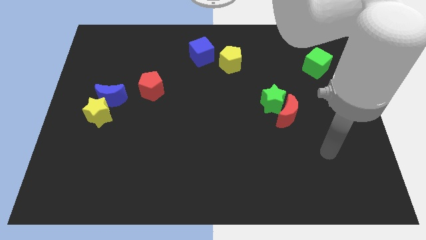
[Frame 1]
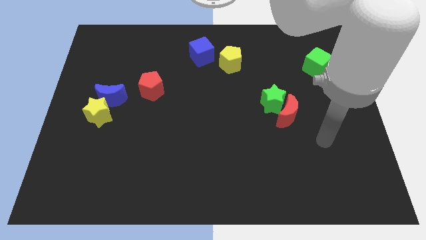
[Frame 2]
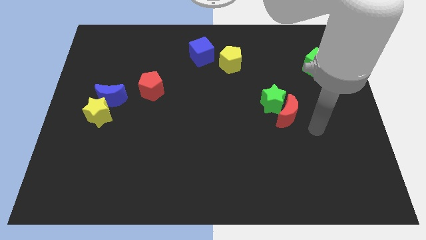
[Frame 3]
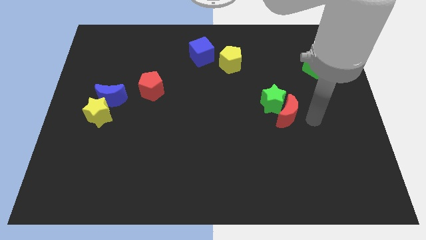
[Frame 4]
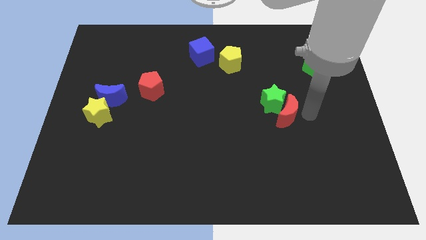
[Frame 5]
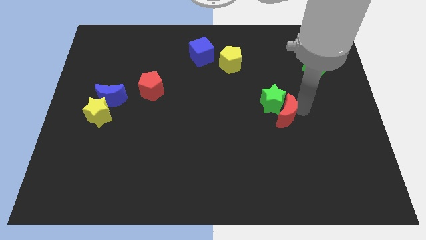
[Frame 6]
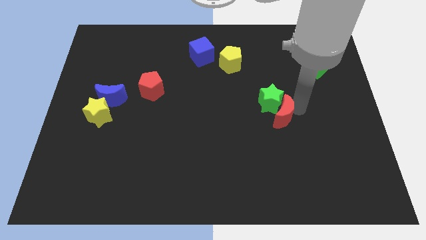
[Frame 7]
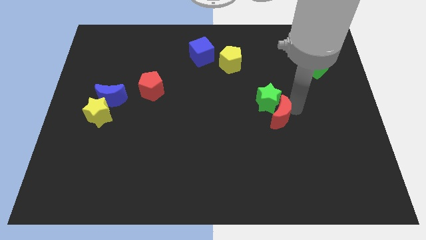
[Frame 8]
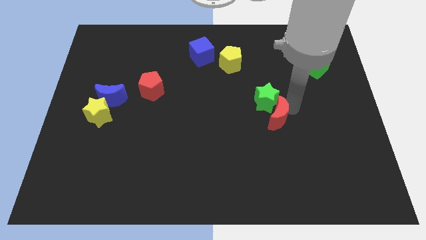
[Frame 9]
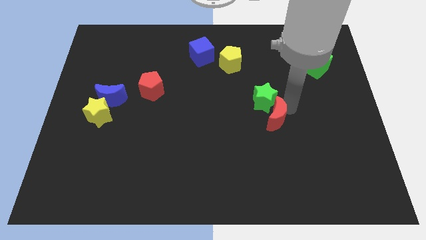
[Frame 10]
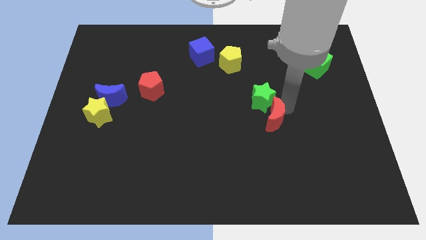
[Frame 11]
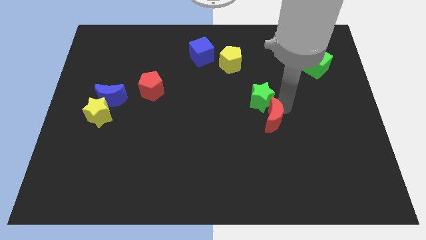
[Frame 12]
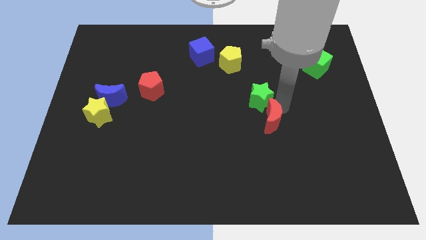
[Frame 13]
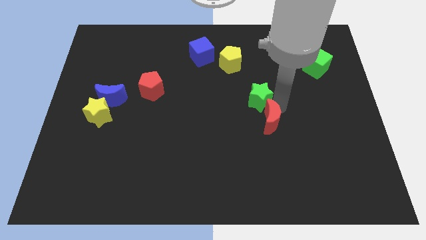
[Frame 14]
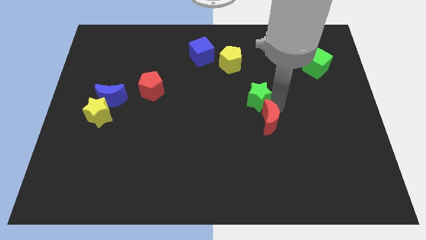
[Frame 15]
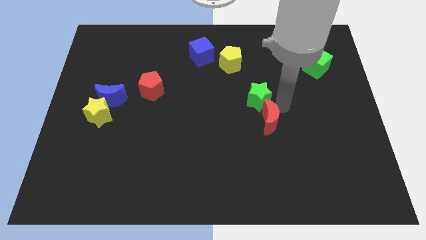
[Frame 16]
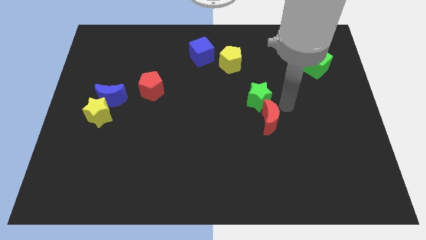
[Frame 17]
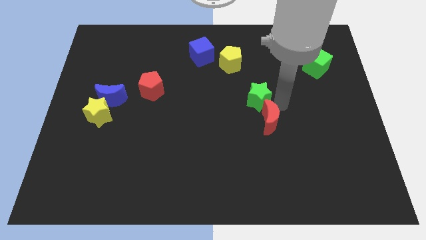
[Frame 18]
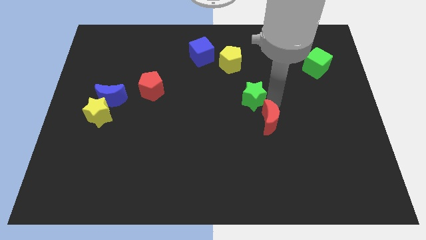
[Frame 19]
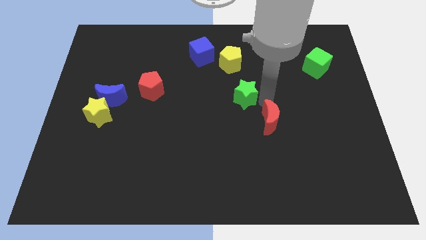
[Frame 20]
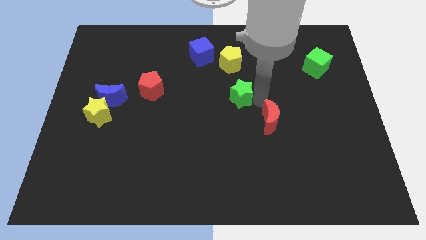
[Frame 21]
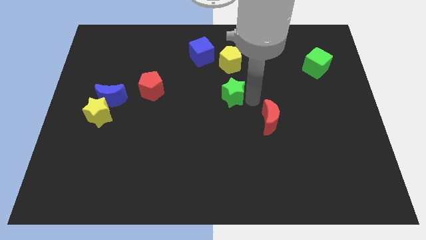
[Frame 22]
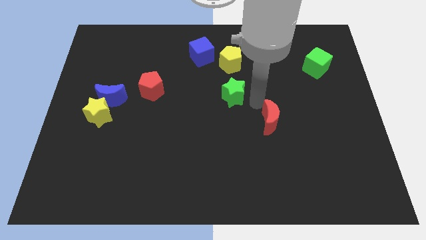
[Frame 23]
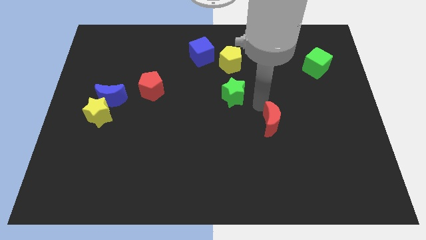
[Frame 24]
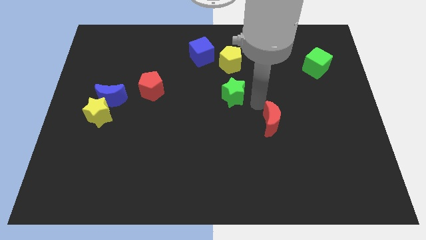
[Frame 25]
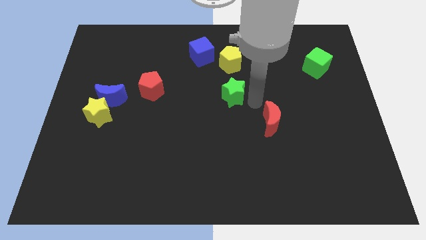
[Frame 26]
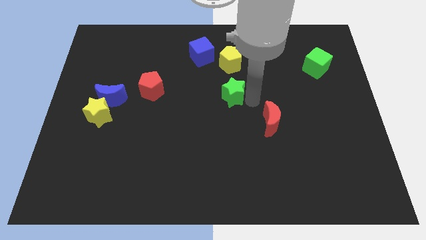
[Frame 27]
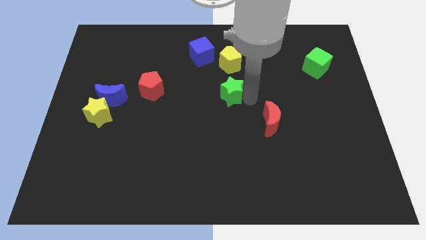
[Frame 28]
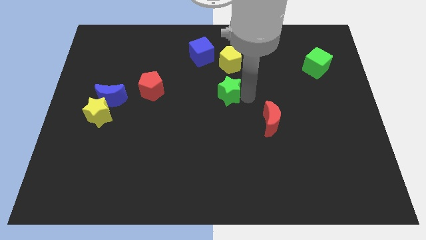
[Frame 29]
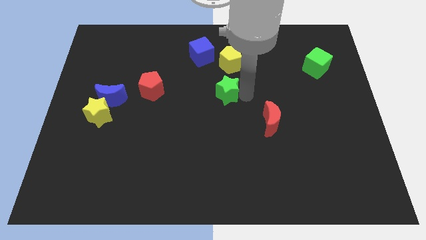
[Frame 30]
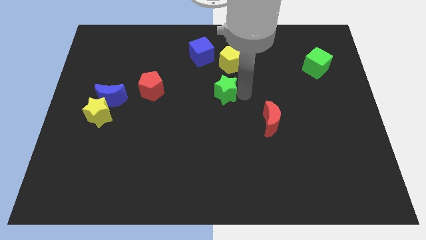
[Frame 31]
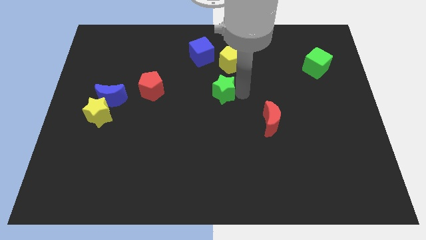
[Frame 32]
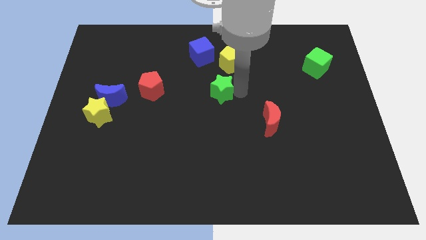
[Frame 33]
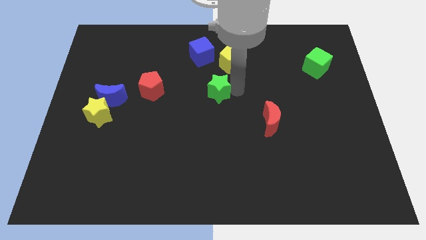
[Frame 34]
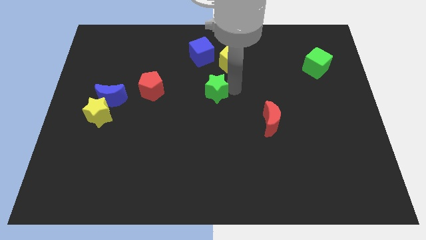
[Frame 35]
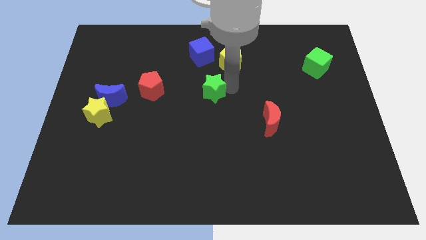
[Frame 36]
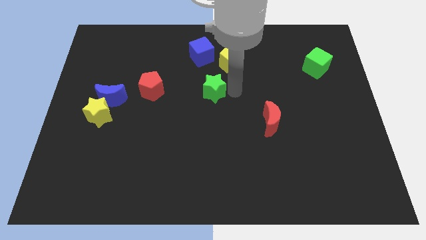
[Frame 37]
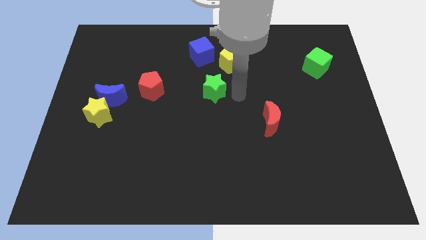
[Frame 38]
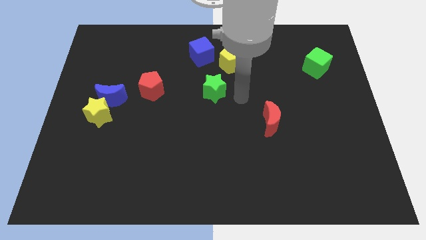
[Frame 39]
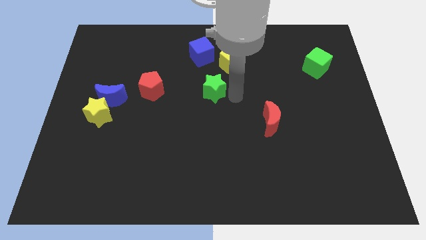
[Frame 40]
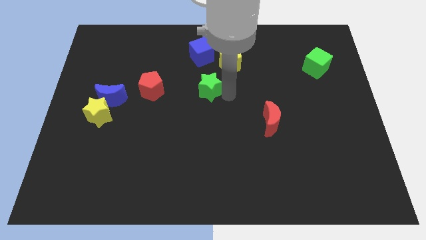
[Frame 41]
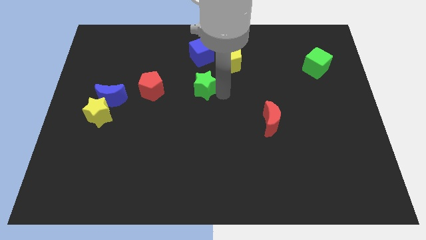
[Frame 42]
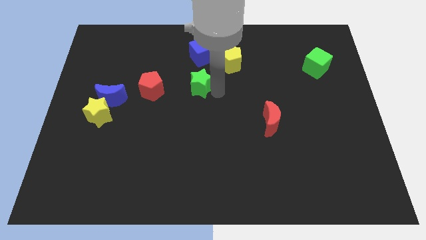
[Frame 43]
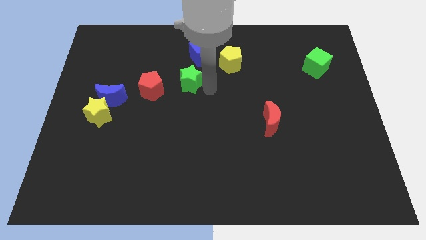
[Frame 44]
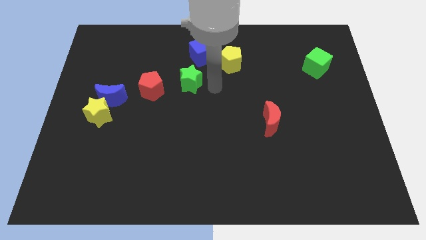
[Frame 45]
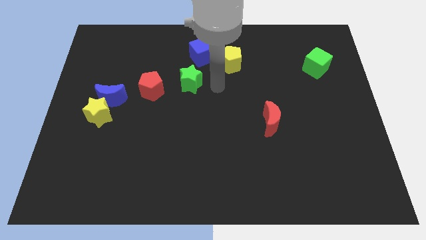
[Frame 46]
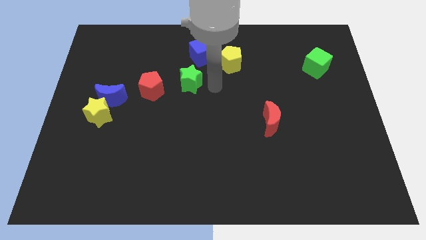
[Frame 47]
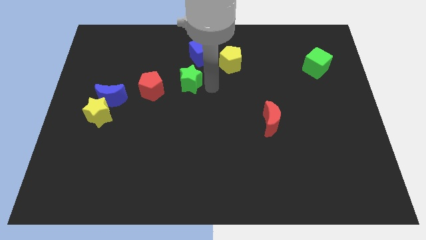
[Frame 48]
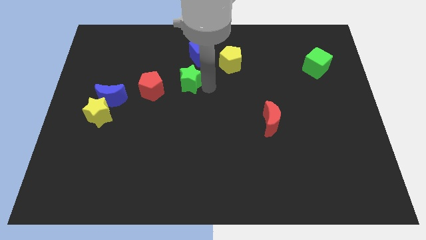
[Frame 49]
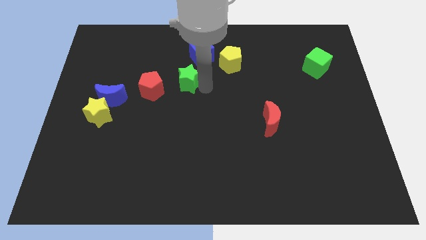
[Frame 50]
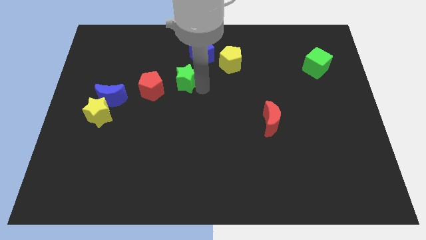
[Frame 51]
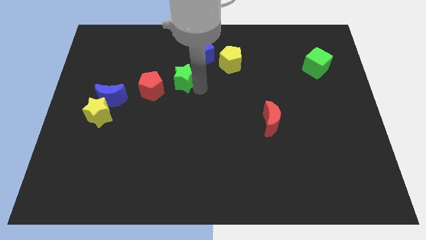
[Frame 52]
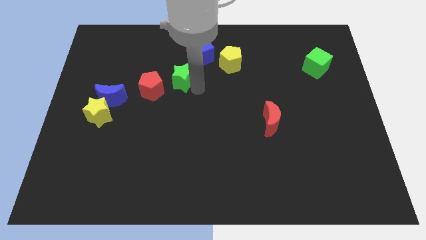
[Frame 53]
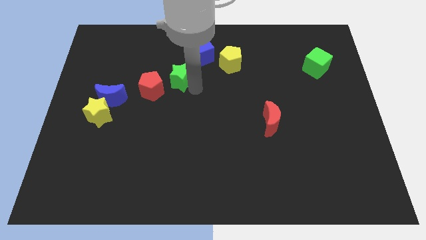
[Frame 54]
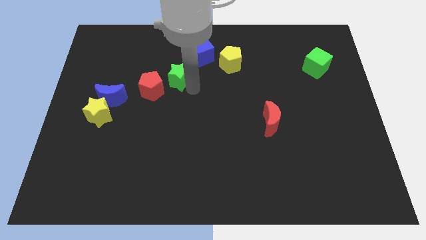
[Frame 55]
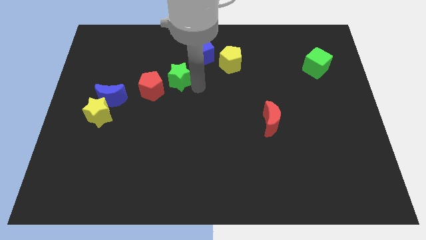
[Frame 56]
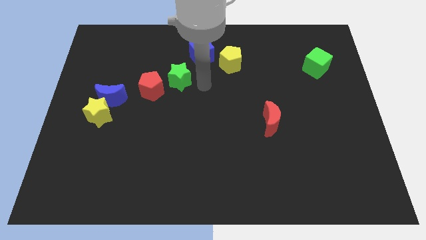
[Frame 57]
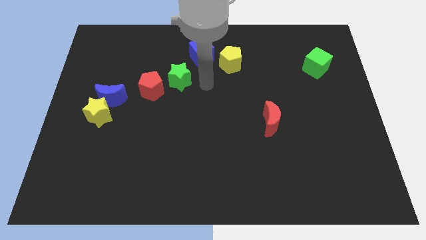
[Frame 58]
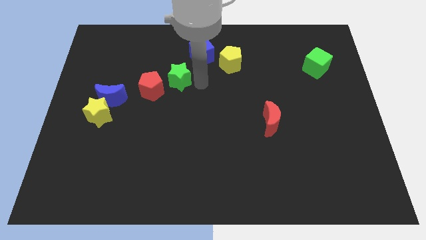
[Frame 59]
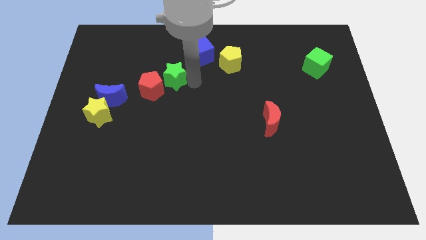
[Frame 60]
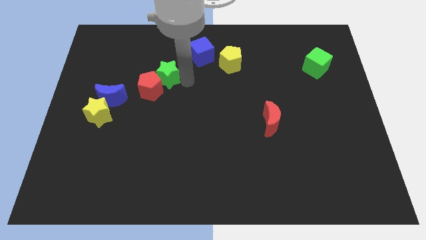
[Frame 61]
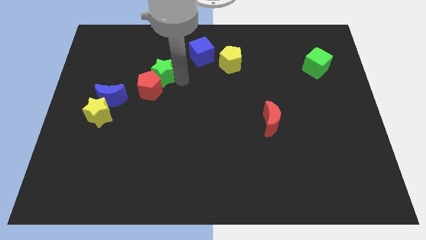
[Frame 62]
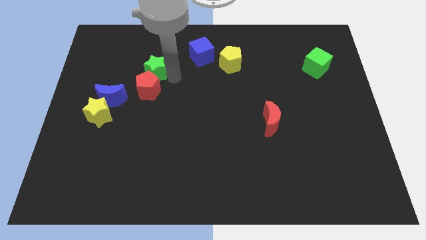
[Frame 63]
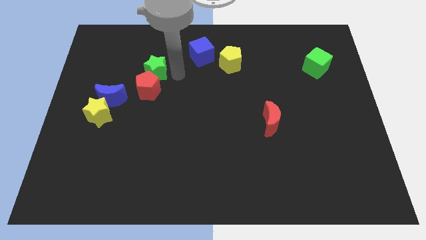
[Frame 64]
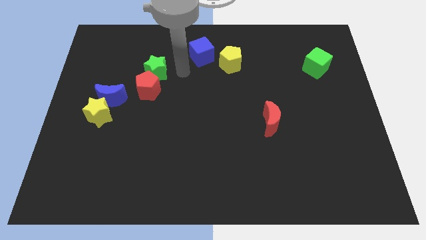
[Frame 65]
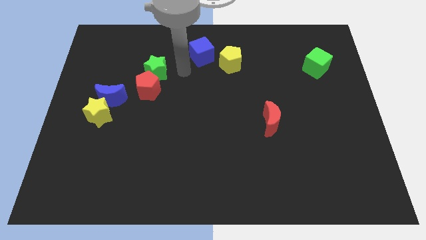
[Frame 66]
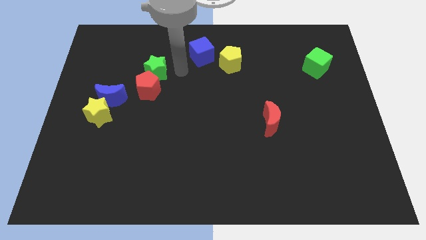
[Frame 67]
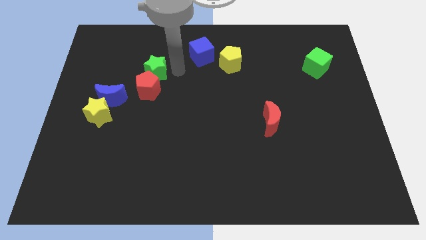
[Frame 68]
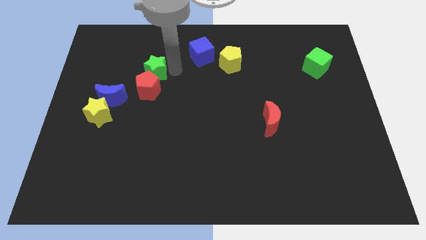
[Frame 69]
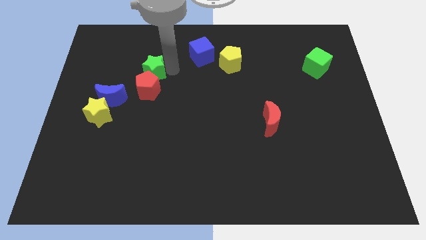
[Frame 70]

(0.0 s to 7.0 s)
move the green star to the top left of the red pentagon

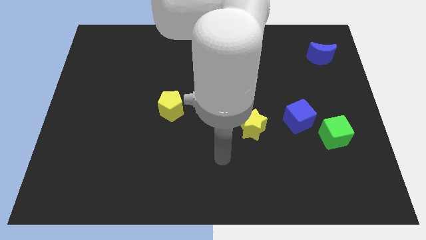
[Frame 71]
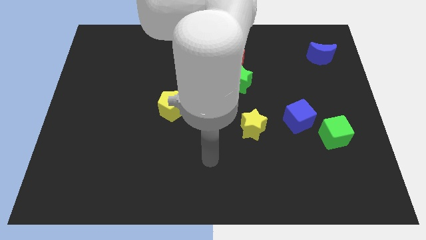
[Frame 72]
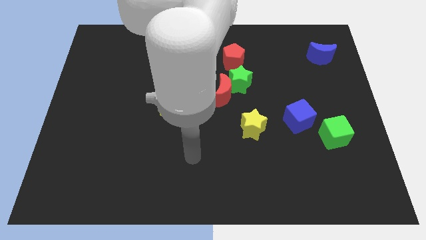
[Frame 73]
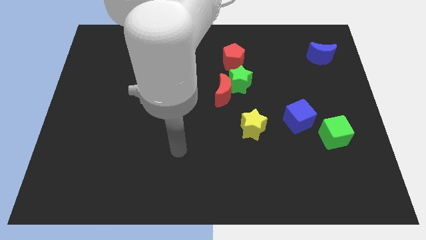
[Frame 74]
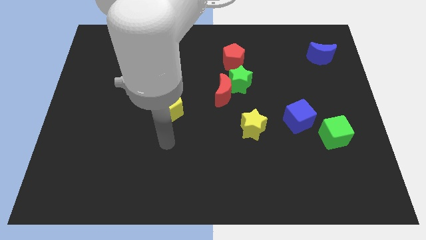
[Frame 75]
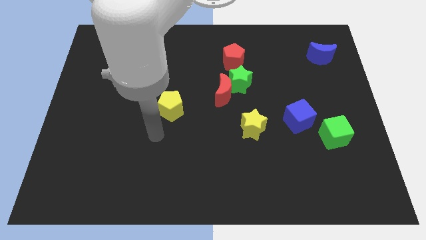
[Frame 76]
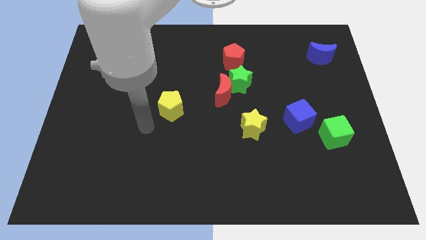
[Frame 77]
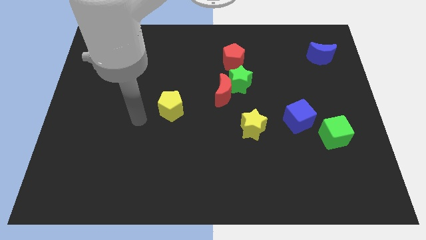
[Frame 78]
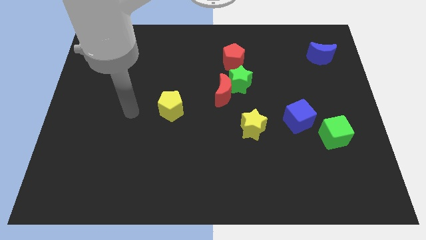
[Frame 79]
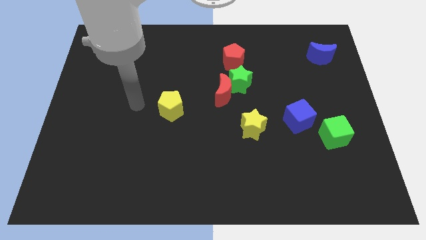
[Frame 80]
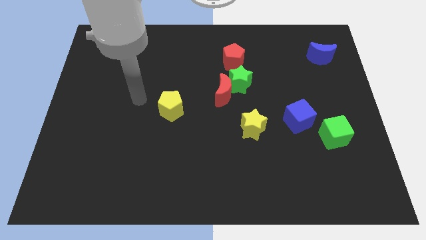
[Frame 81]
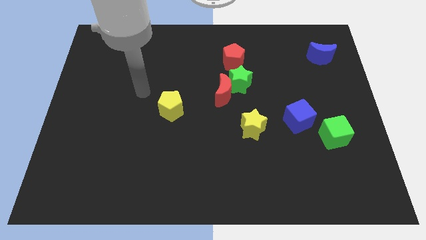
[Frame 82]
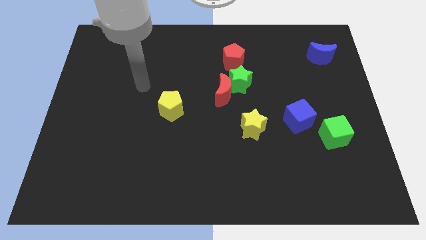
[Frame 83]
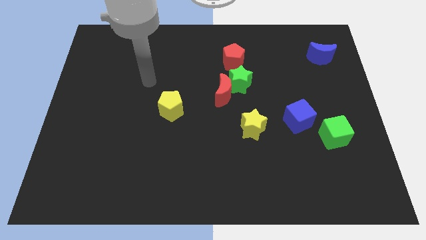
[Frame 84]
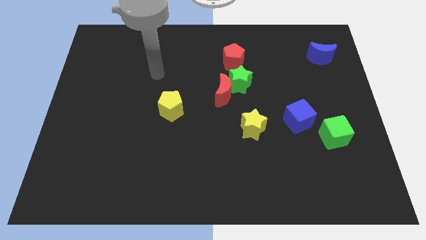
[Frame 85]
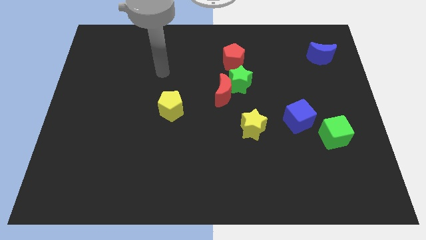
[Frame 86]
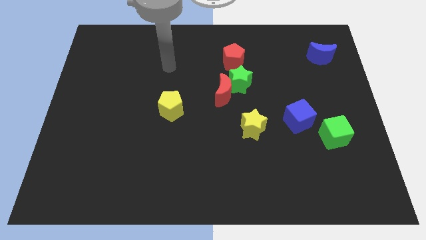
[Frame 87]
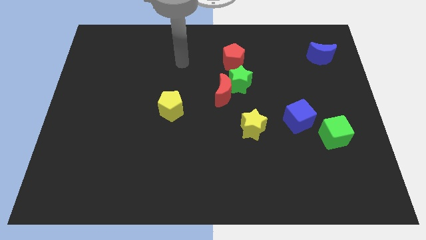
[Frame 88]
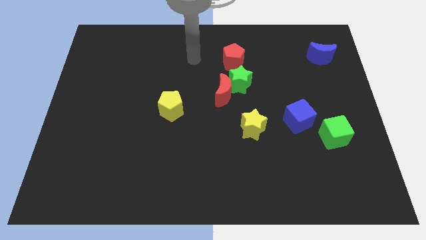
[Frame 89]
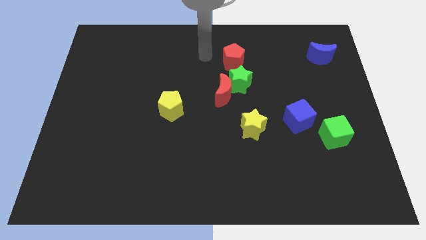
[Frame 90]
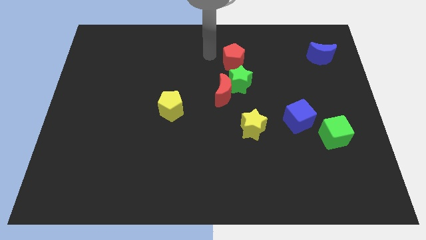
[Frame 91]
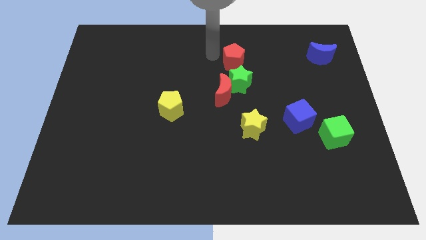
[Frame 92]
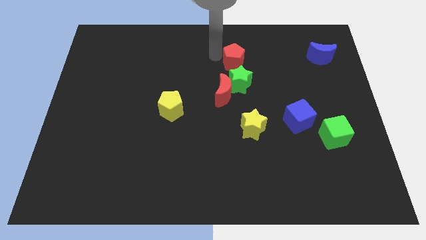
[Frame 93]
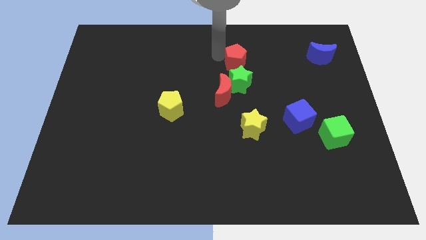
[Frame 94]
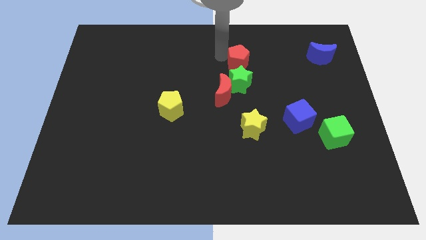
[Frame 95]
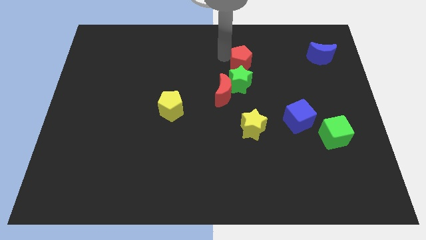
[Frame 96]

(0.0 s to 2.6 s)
slide the red pentagon diagonally up and to the right of the green star
